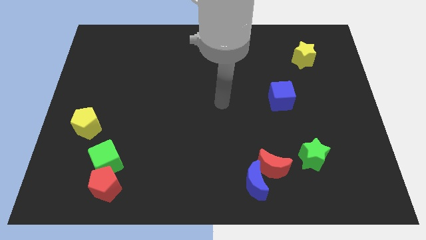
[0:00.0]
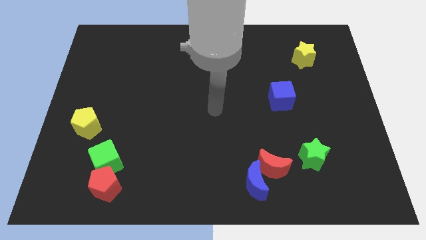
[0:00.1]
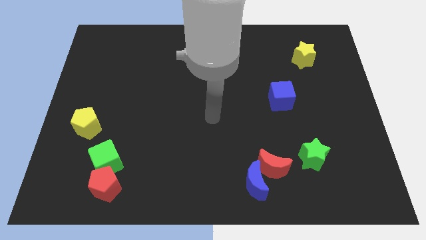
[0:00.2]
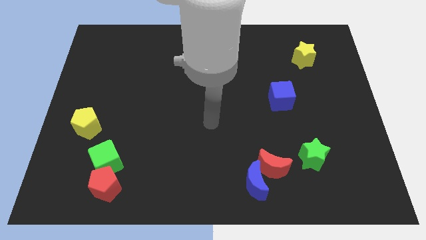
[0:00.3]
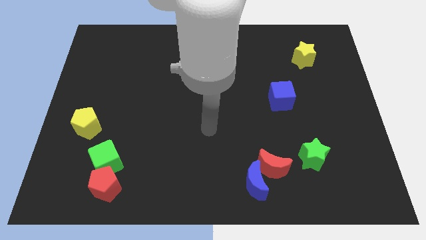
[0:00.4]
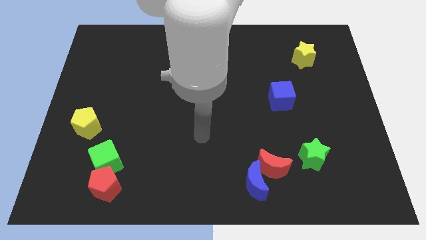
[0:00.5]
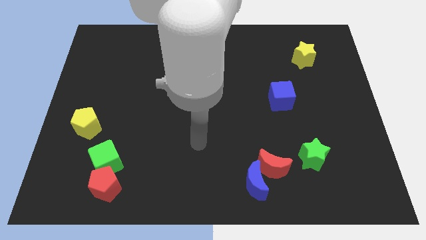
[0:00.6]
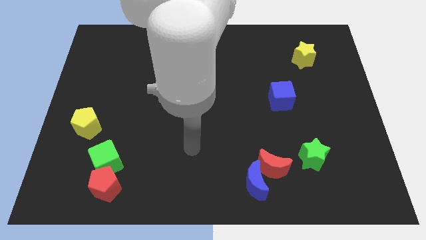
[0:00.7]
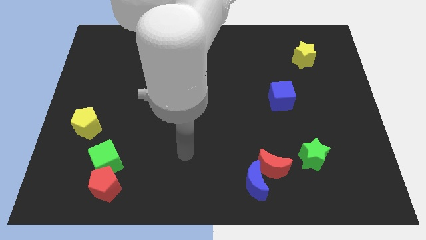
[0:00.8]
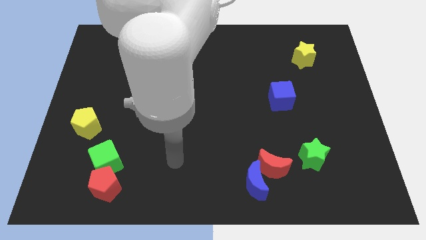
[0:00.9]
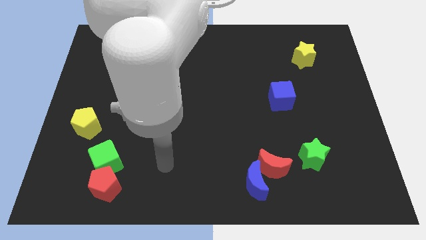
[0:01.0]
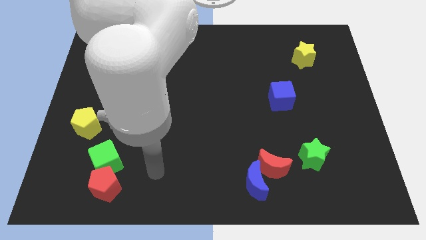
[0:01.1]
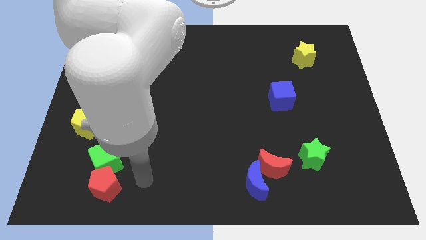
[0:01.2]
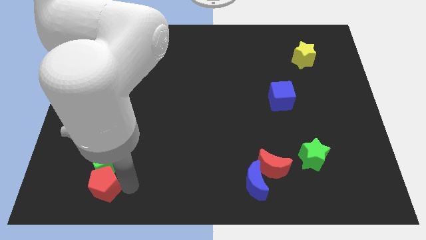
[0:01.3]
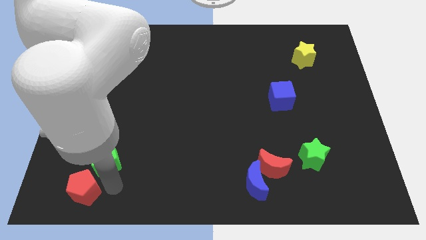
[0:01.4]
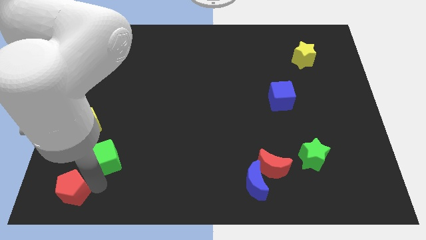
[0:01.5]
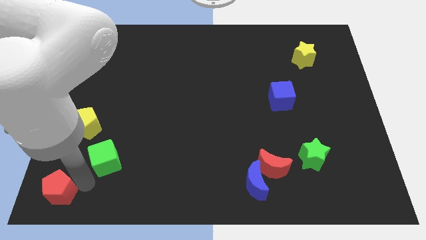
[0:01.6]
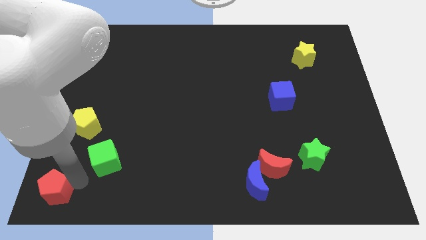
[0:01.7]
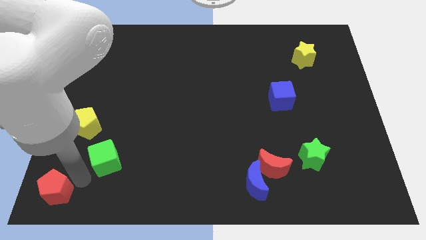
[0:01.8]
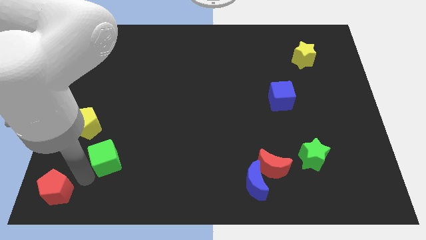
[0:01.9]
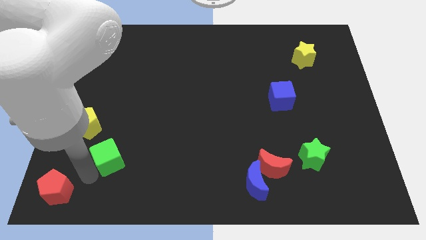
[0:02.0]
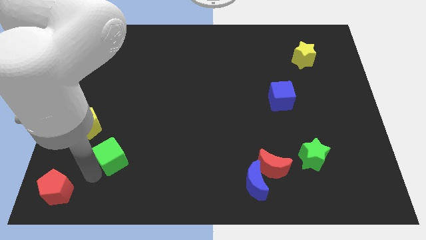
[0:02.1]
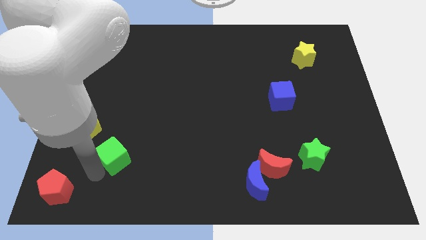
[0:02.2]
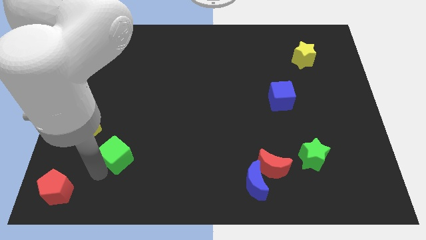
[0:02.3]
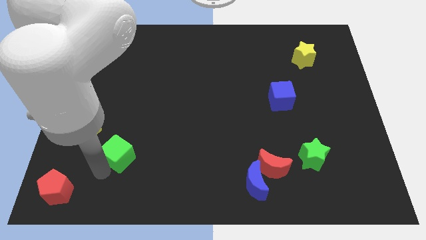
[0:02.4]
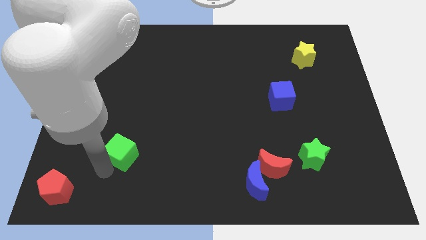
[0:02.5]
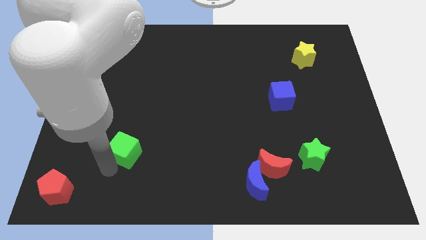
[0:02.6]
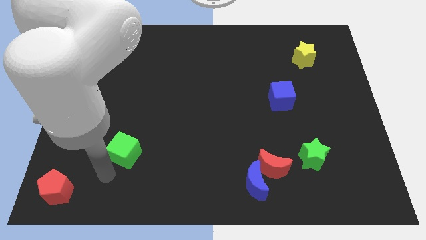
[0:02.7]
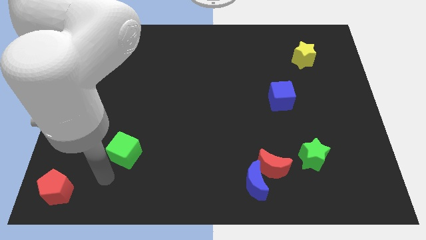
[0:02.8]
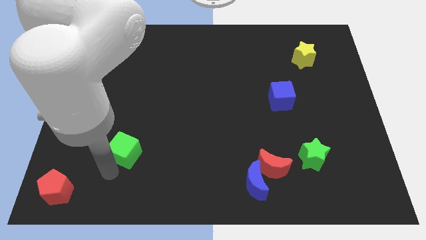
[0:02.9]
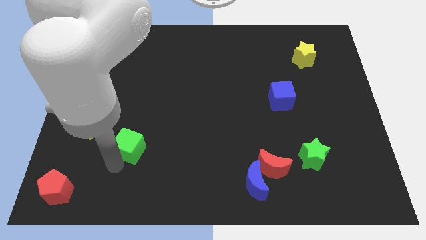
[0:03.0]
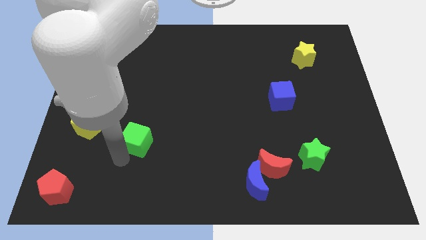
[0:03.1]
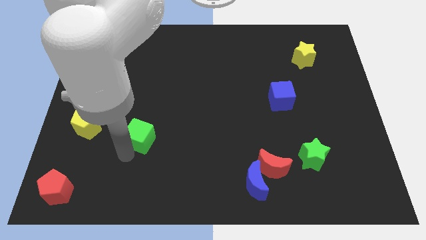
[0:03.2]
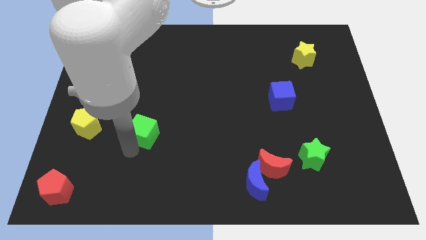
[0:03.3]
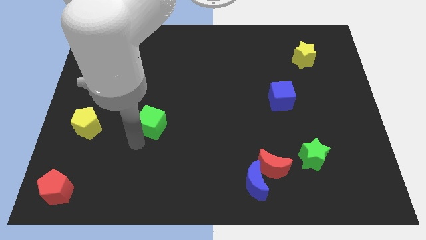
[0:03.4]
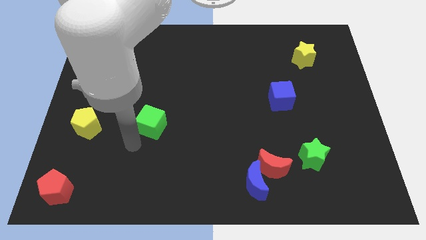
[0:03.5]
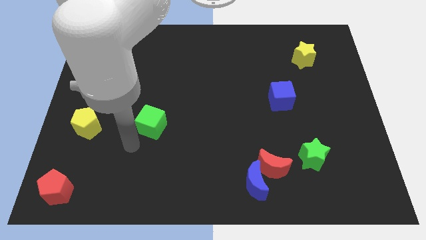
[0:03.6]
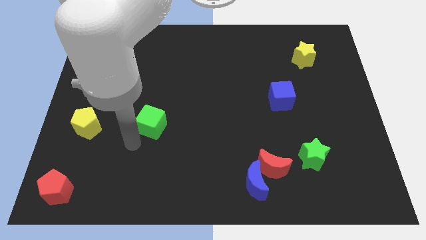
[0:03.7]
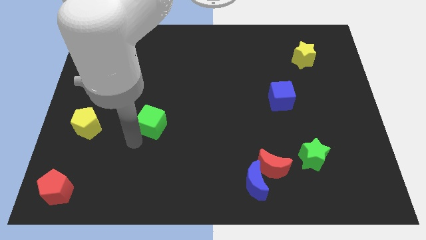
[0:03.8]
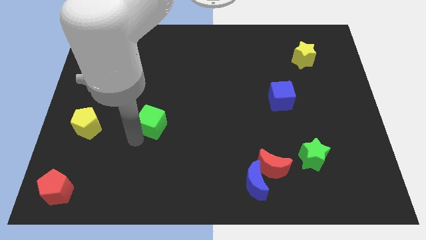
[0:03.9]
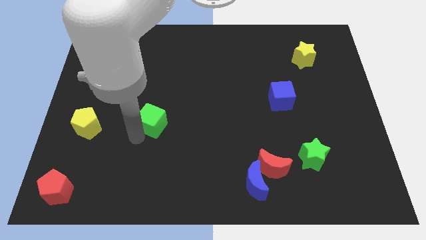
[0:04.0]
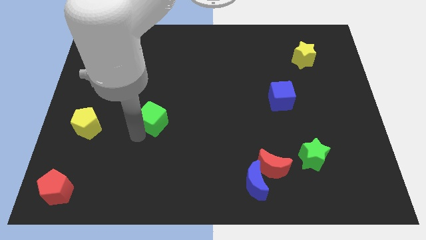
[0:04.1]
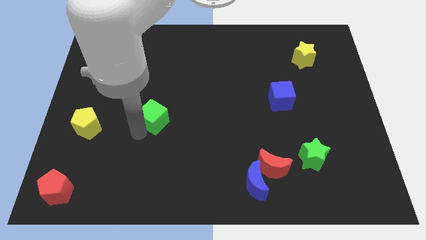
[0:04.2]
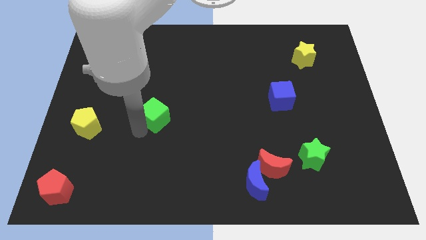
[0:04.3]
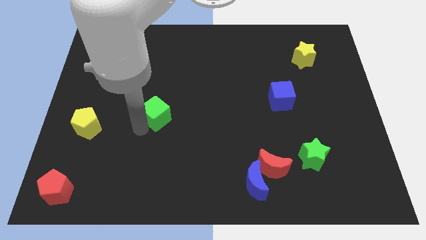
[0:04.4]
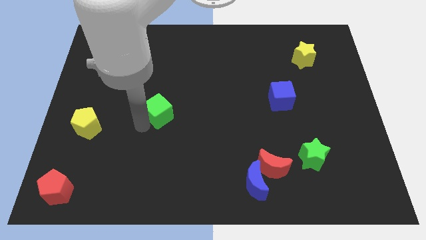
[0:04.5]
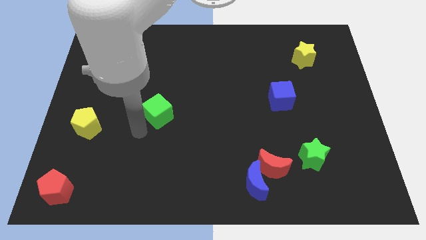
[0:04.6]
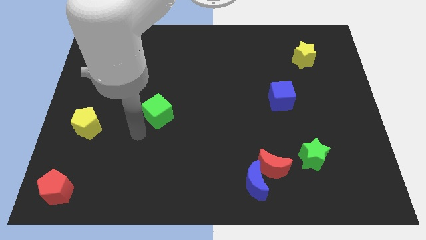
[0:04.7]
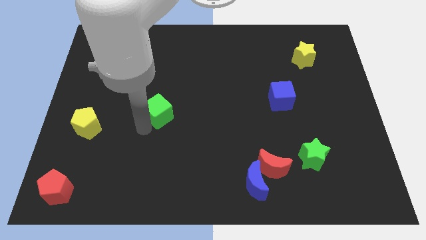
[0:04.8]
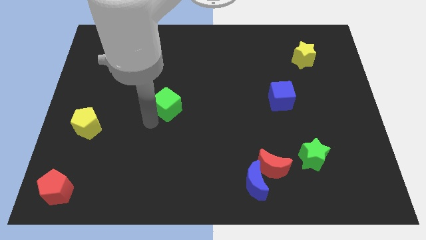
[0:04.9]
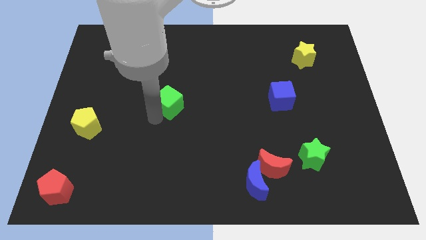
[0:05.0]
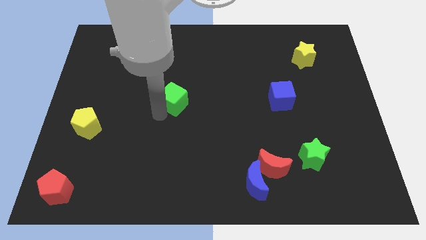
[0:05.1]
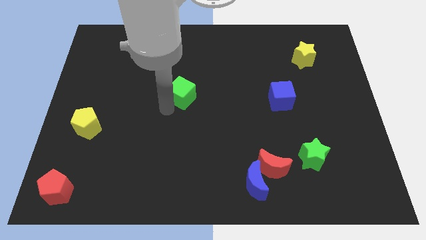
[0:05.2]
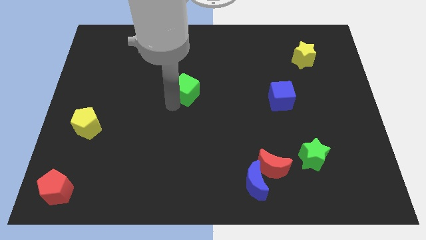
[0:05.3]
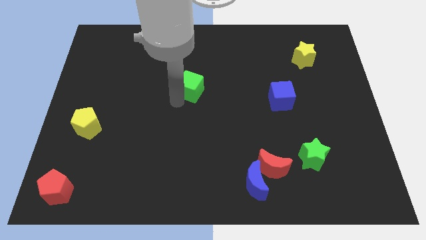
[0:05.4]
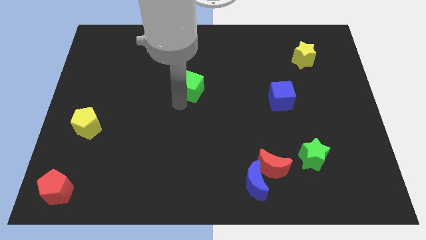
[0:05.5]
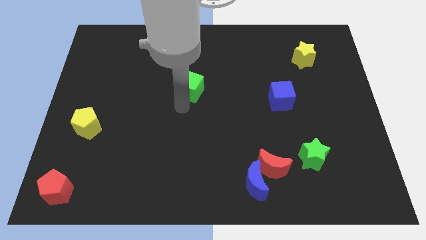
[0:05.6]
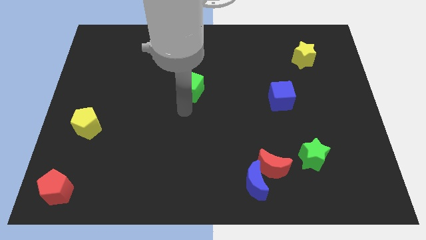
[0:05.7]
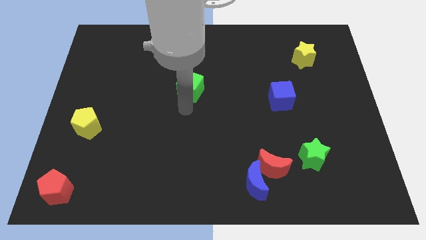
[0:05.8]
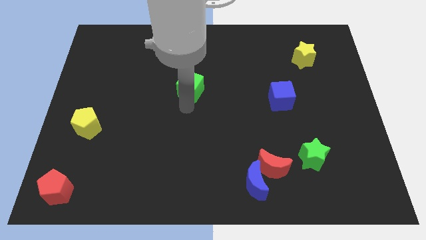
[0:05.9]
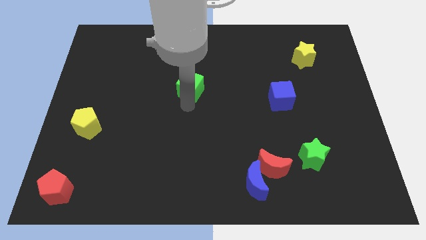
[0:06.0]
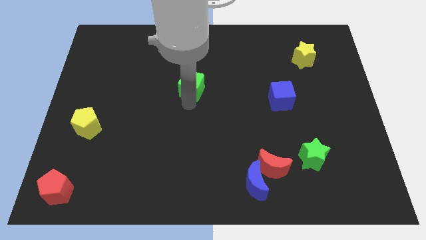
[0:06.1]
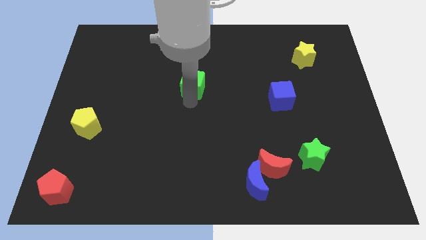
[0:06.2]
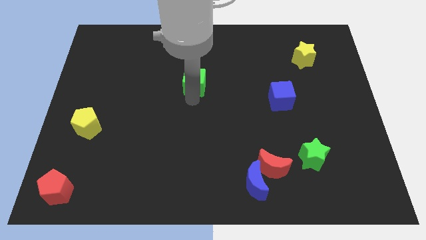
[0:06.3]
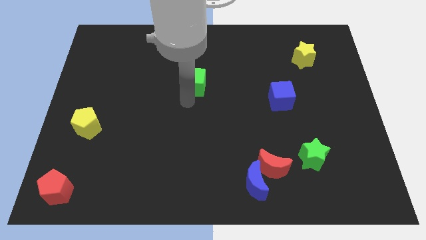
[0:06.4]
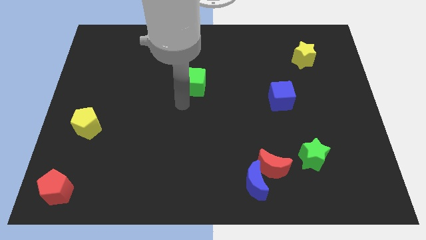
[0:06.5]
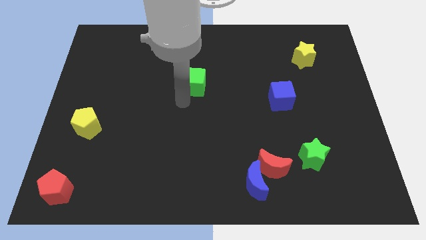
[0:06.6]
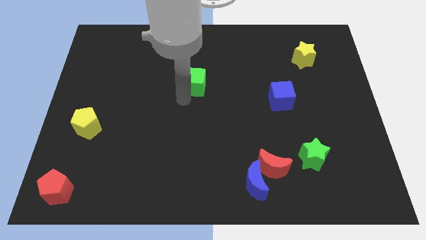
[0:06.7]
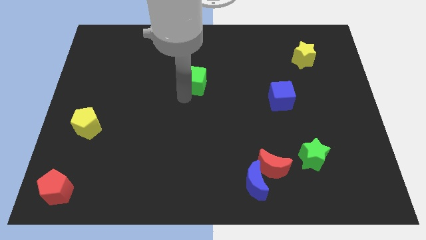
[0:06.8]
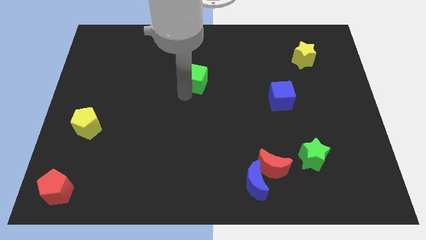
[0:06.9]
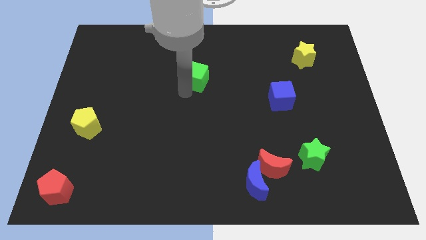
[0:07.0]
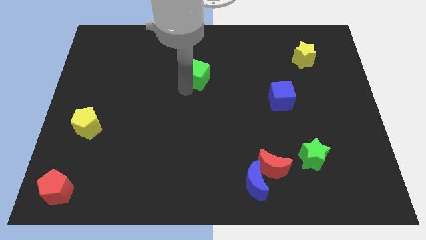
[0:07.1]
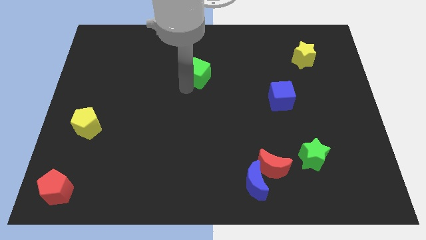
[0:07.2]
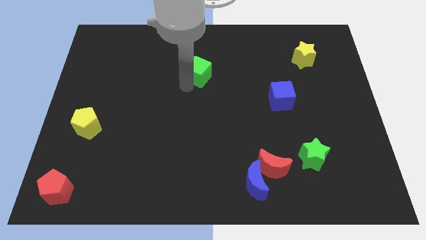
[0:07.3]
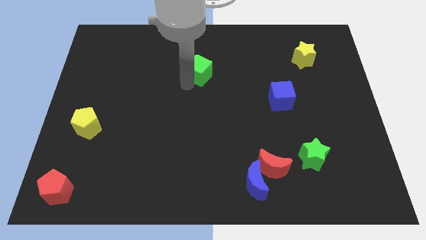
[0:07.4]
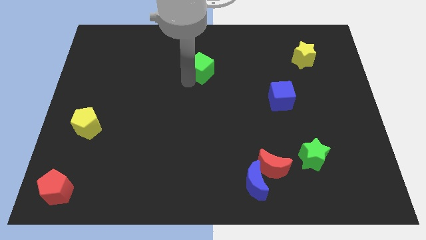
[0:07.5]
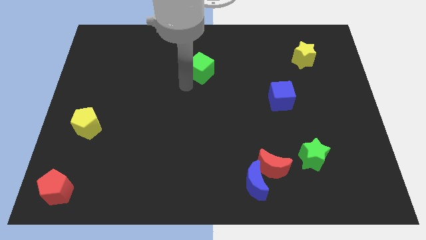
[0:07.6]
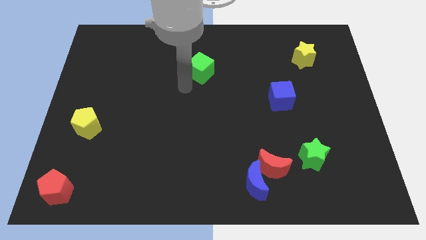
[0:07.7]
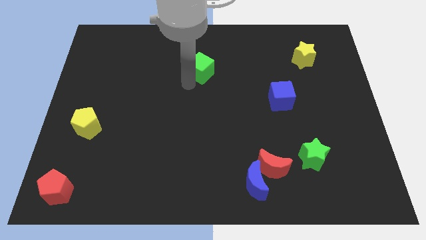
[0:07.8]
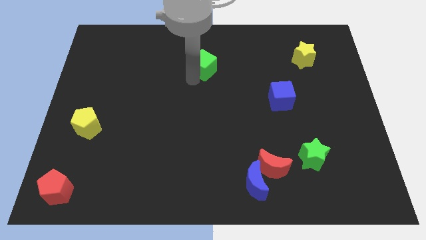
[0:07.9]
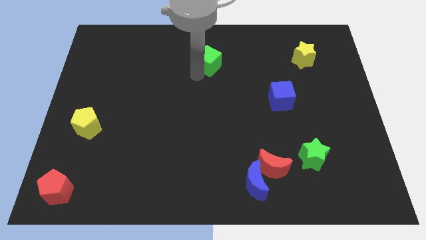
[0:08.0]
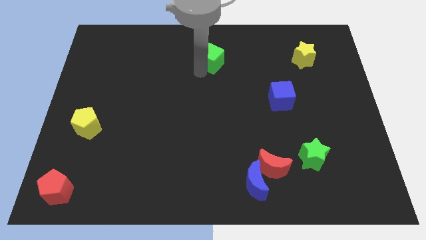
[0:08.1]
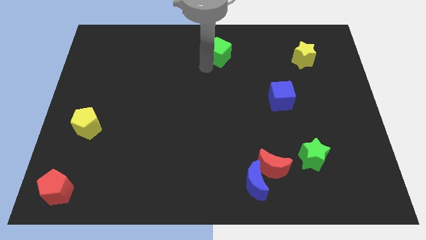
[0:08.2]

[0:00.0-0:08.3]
put the green cube to the top
